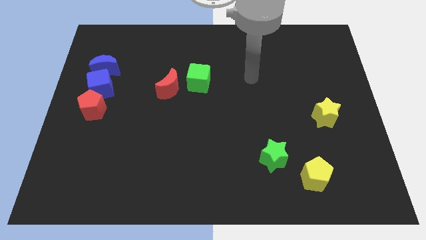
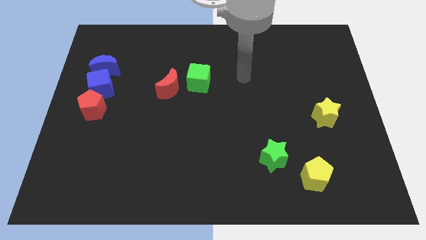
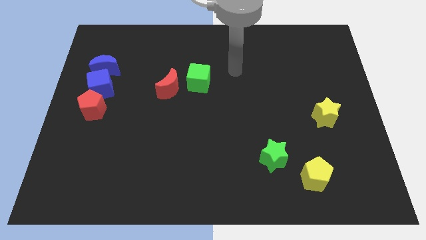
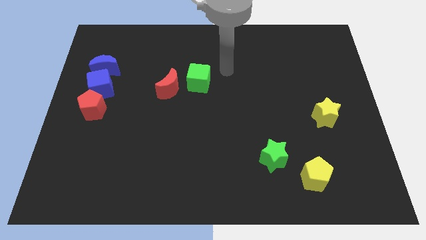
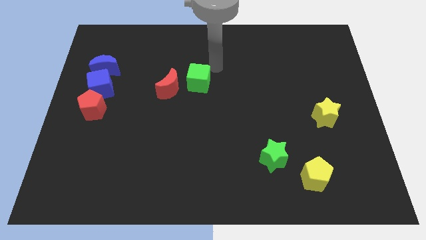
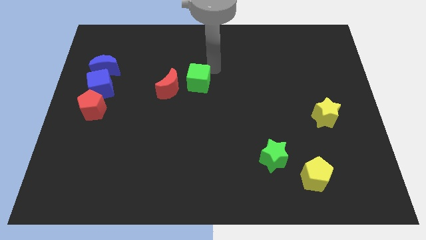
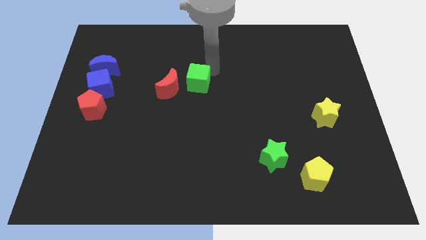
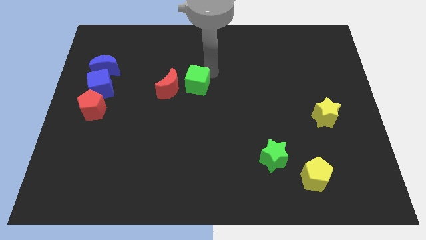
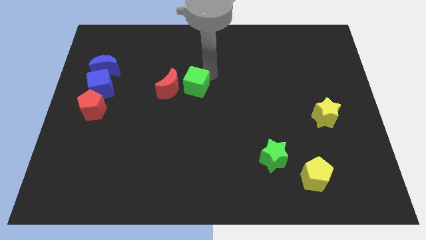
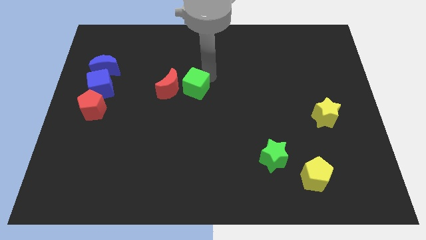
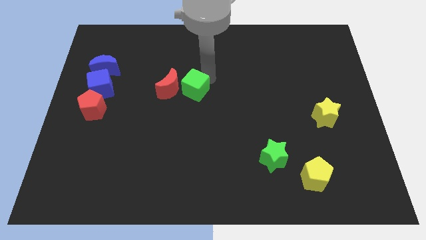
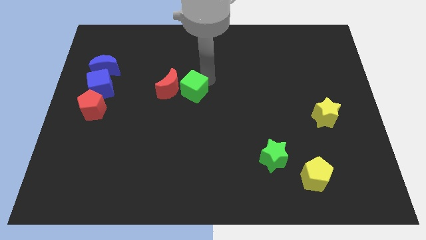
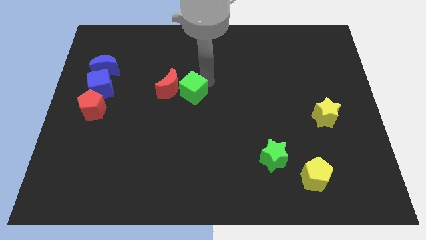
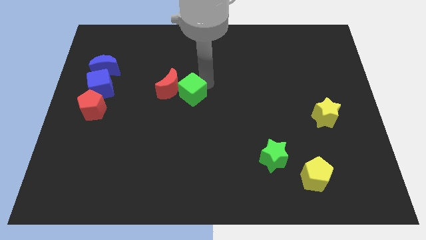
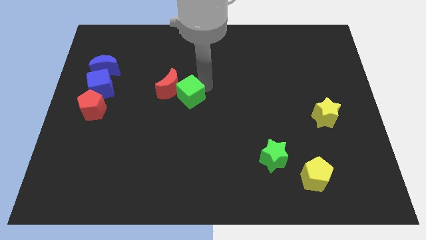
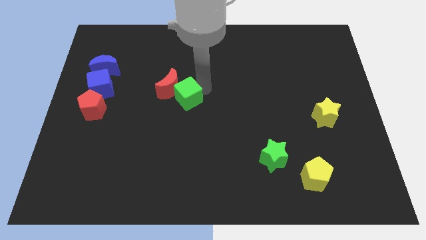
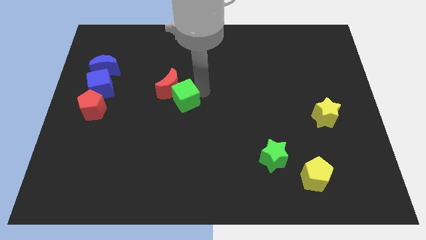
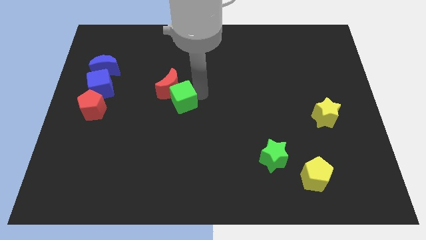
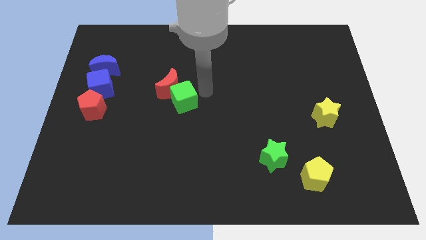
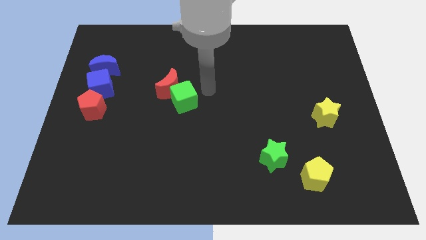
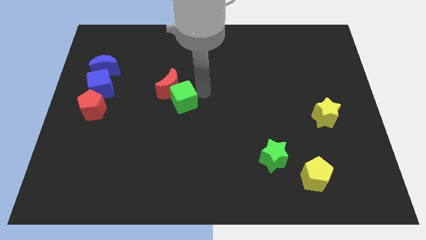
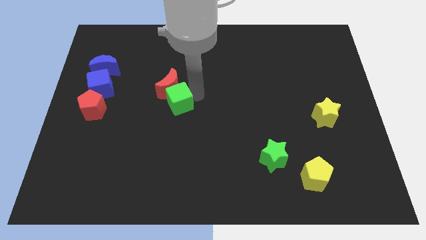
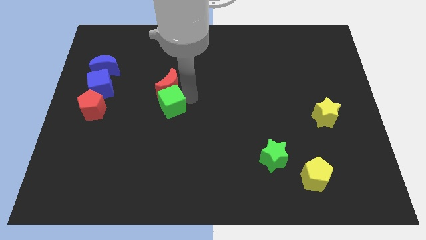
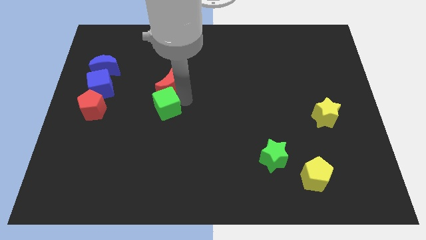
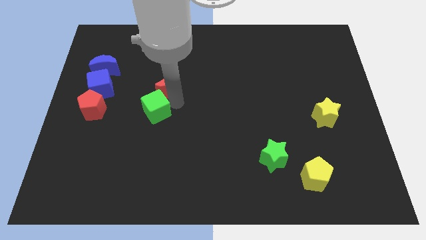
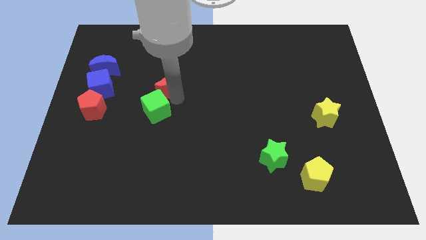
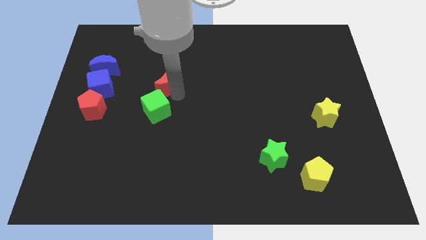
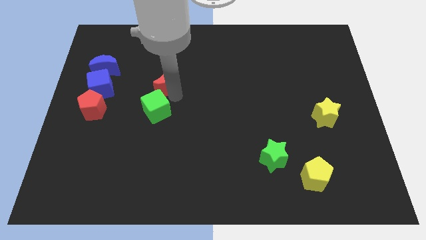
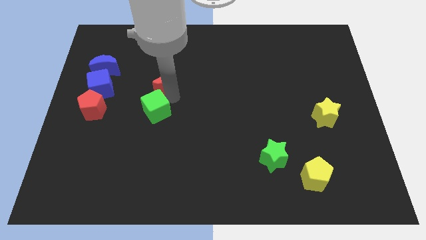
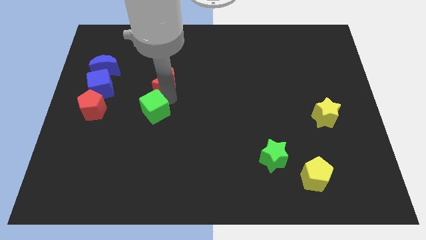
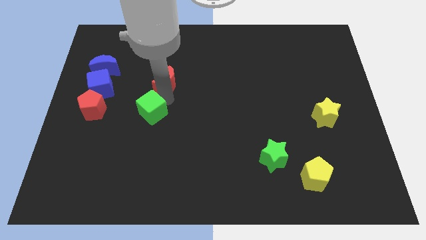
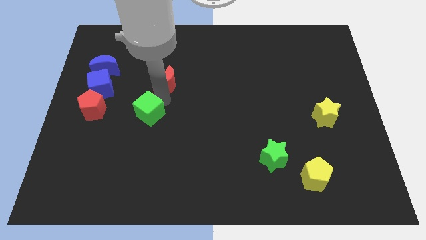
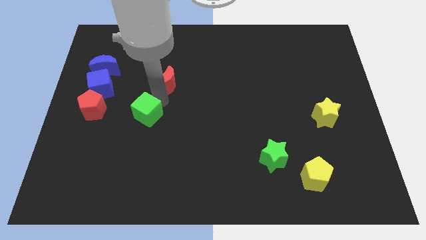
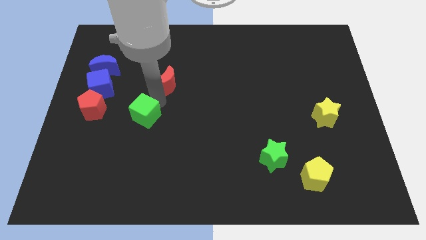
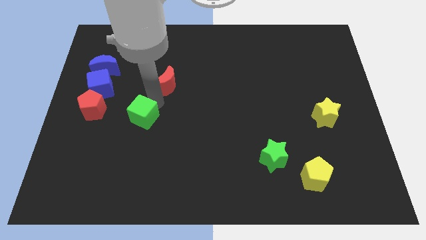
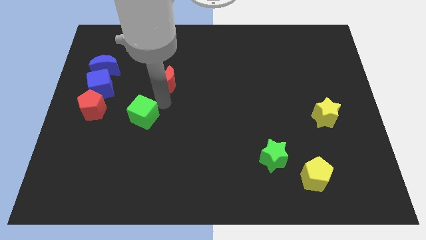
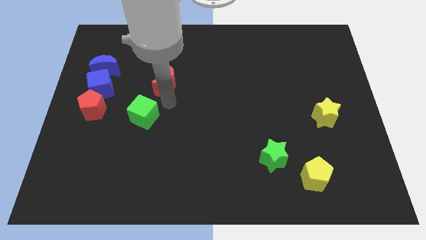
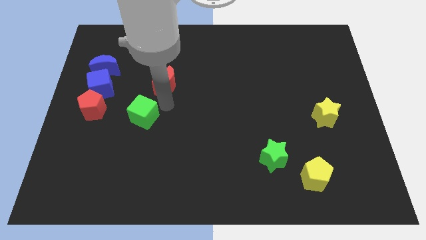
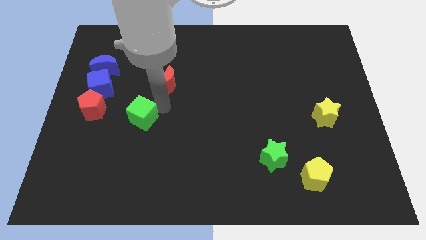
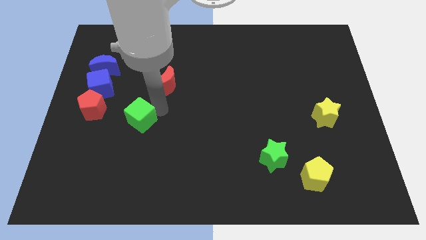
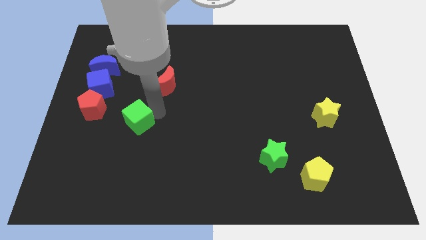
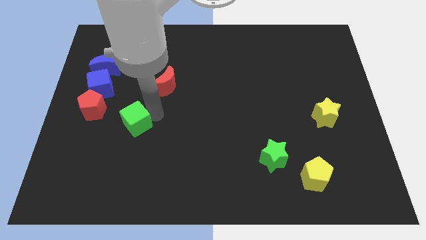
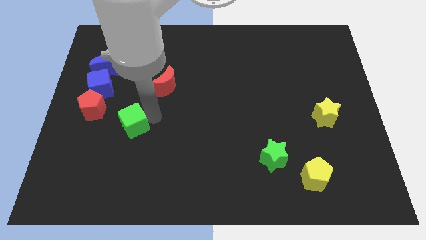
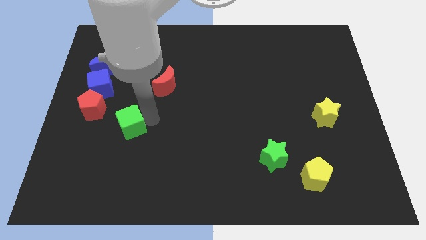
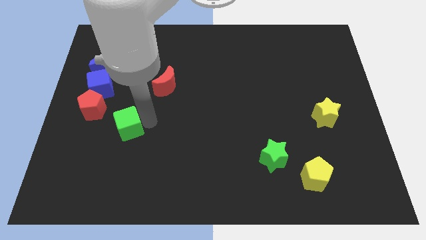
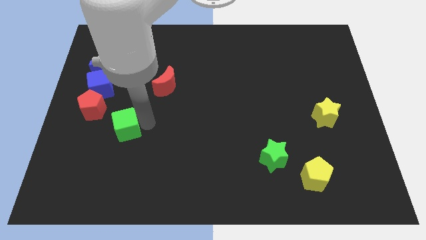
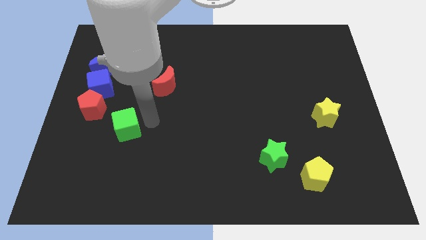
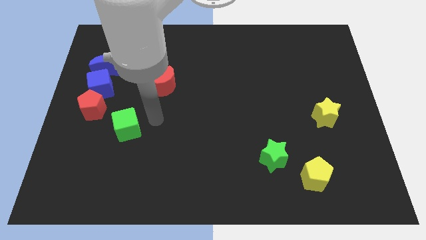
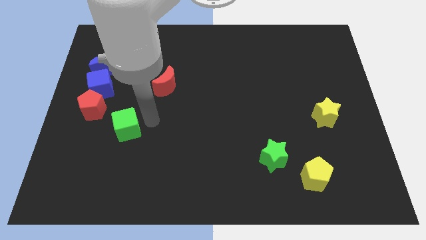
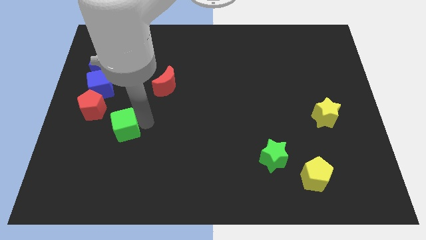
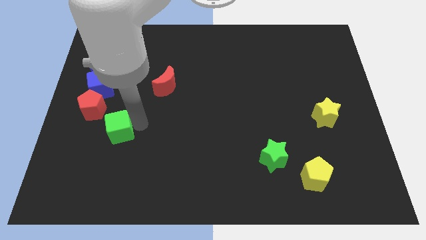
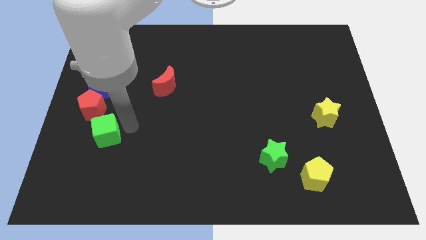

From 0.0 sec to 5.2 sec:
put the green cube to the bottom of the red pentagon
